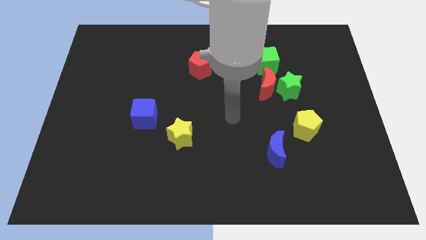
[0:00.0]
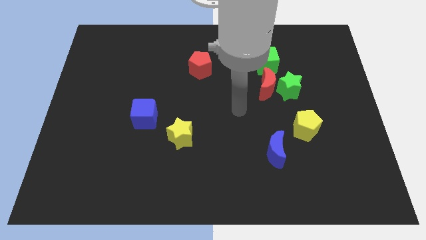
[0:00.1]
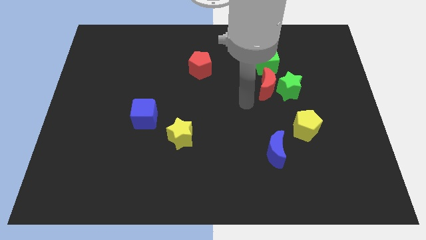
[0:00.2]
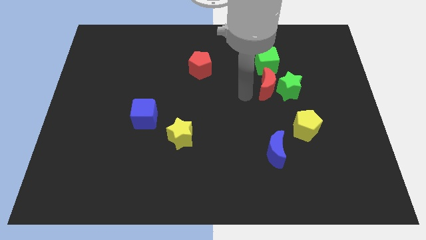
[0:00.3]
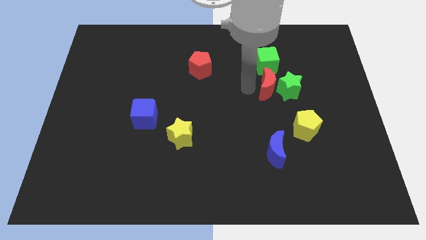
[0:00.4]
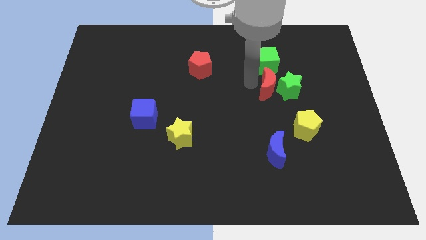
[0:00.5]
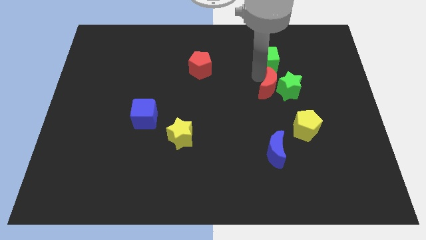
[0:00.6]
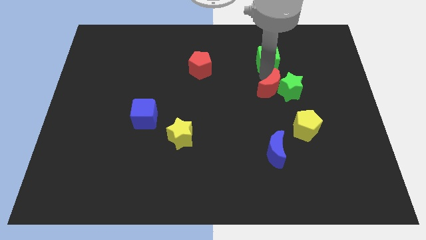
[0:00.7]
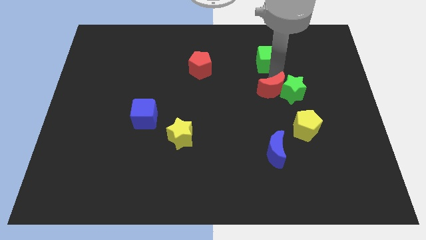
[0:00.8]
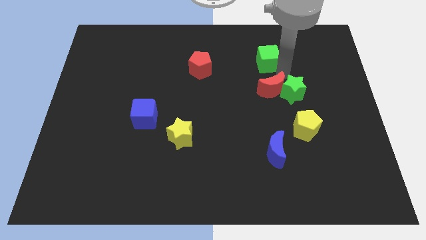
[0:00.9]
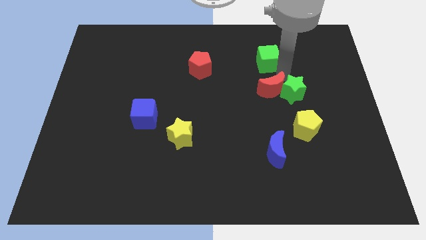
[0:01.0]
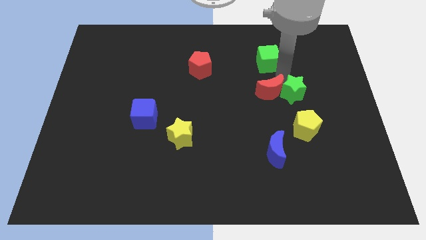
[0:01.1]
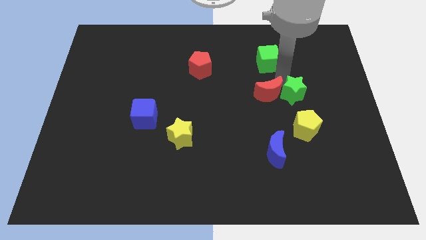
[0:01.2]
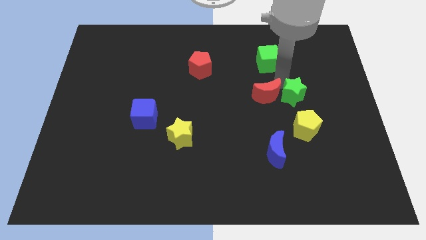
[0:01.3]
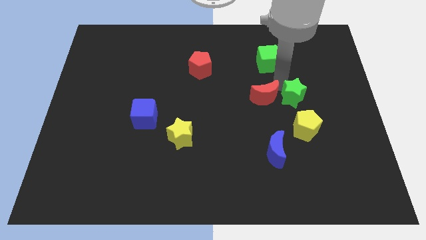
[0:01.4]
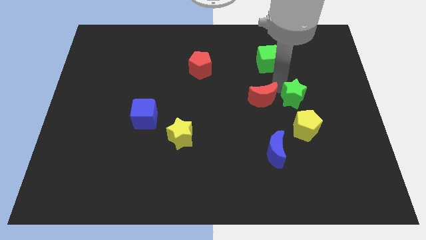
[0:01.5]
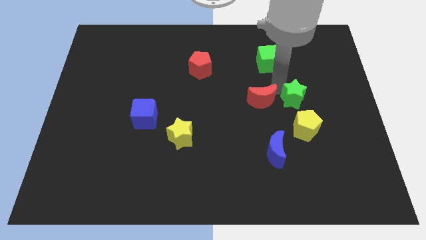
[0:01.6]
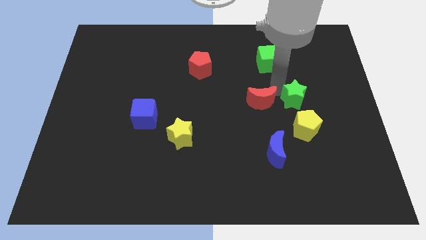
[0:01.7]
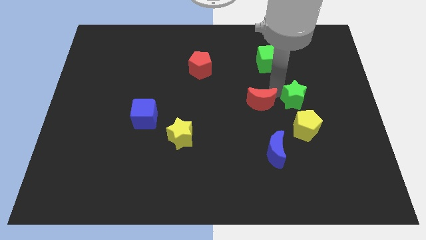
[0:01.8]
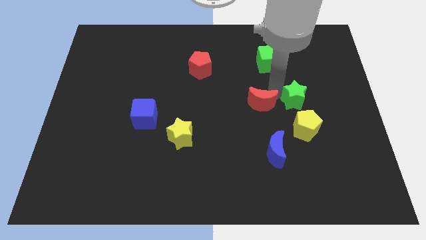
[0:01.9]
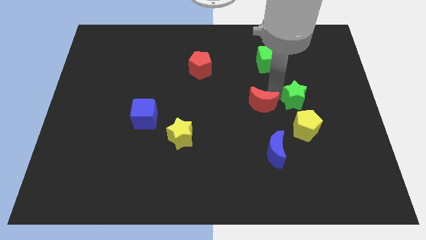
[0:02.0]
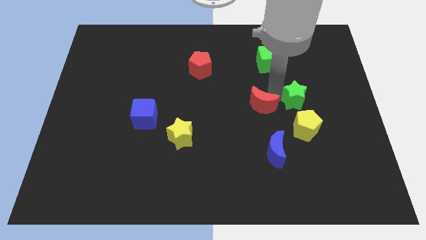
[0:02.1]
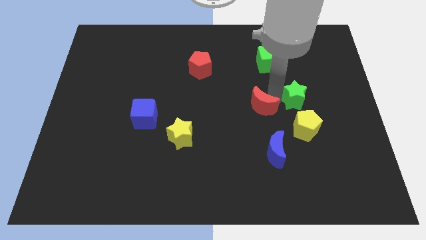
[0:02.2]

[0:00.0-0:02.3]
pull the red moon apart from the green star and green cube

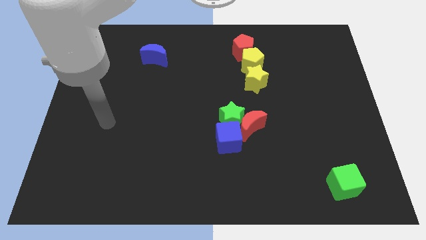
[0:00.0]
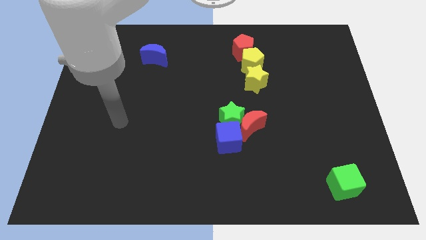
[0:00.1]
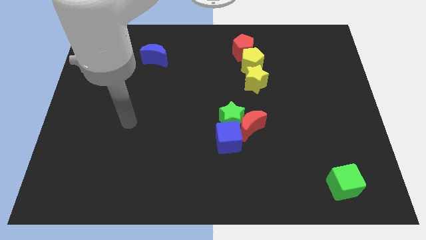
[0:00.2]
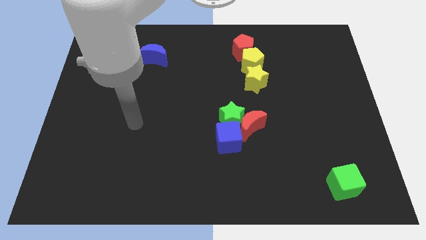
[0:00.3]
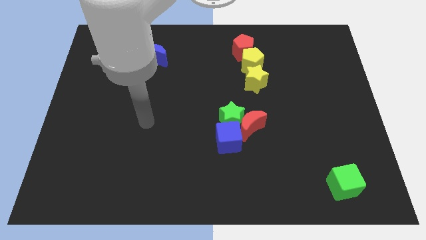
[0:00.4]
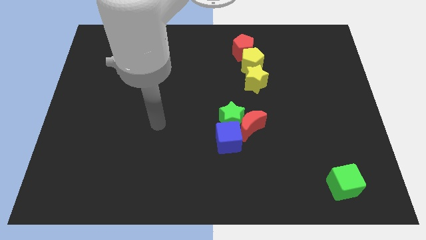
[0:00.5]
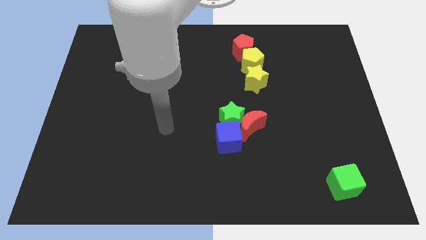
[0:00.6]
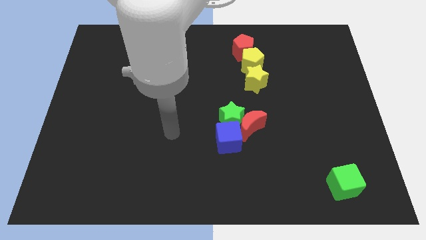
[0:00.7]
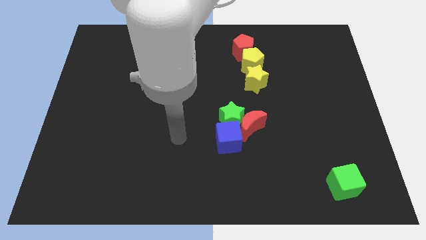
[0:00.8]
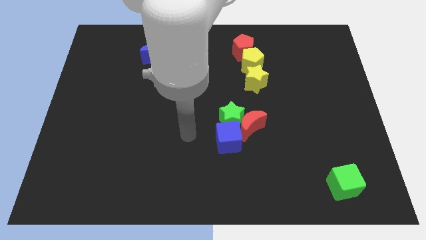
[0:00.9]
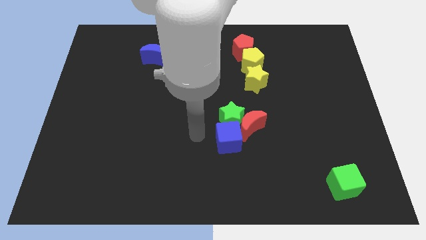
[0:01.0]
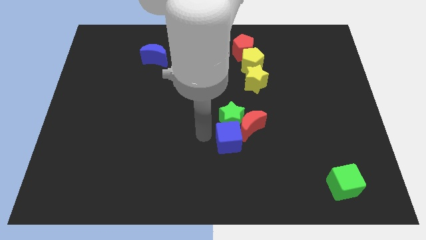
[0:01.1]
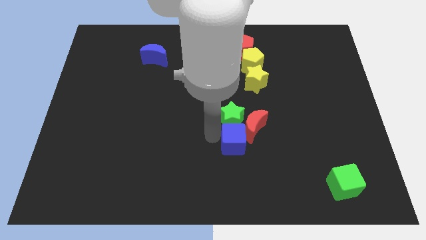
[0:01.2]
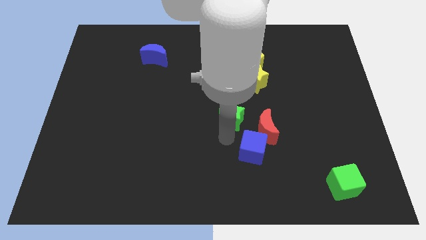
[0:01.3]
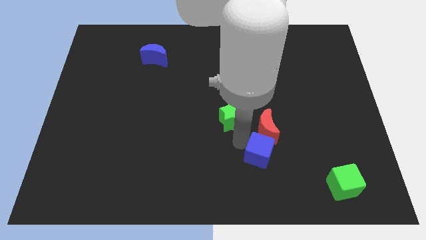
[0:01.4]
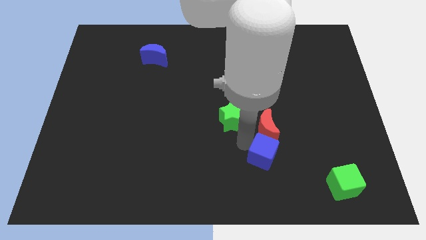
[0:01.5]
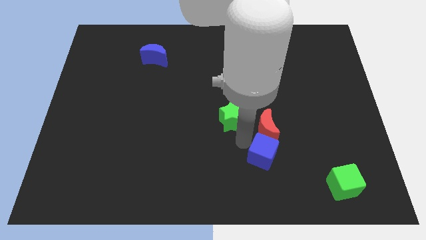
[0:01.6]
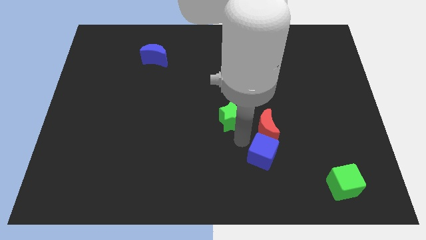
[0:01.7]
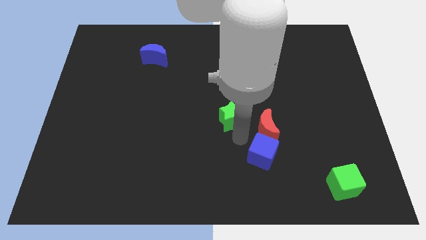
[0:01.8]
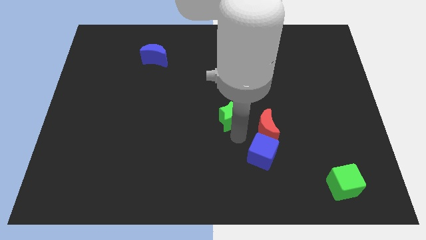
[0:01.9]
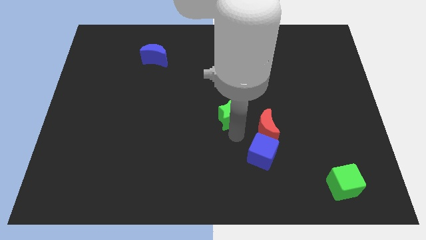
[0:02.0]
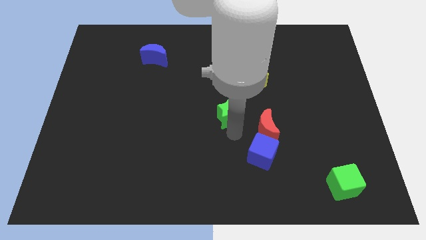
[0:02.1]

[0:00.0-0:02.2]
move the green star away from the red moon and blue cube

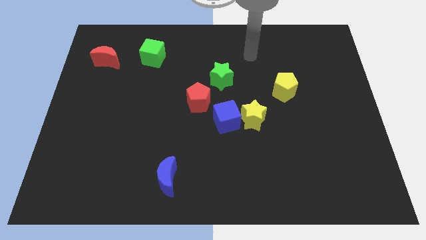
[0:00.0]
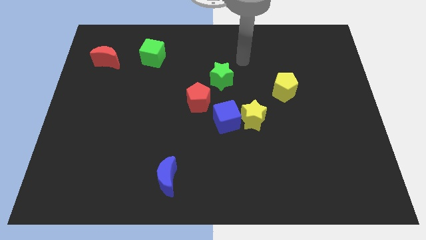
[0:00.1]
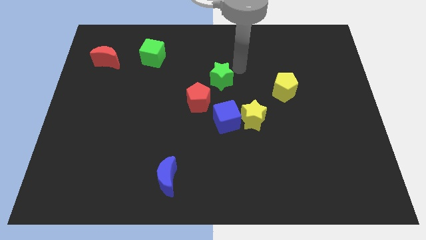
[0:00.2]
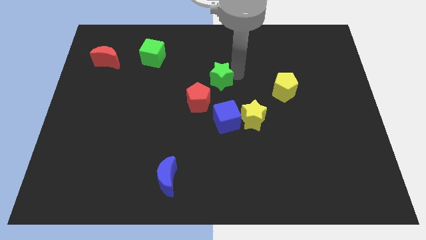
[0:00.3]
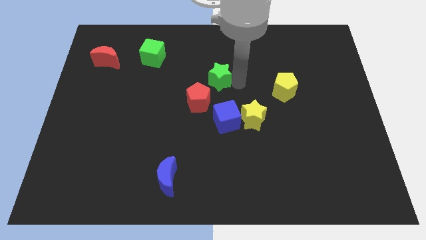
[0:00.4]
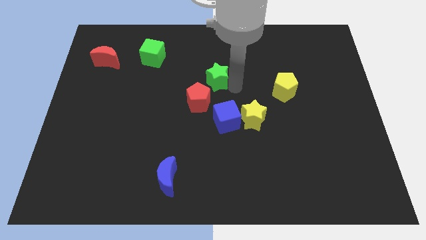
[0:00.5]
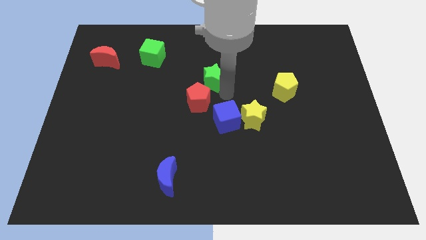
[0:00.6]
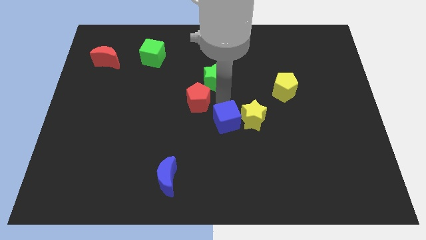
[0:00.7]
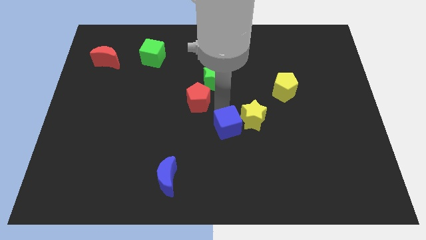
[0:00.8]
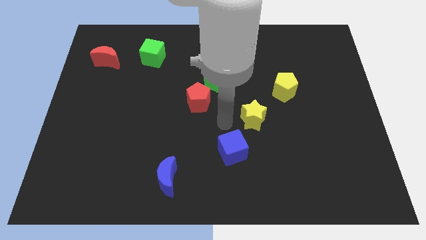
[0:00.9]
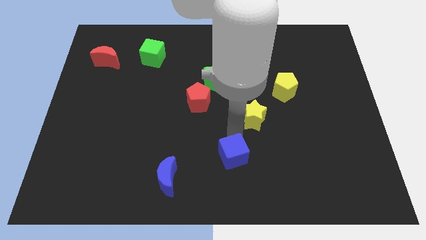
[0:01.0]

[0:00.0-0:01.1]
pull the yellow star apart from the blue cube

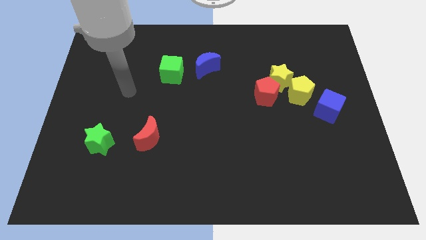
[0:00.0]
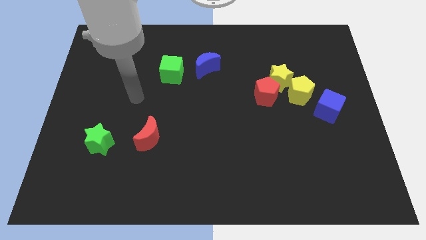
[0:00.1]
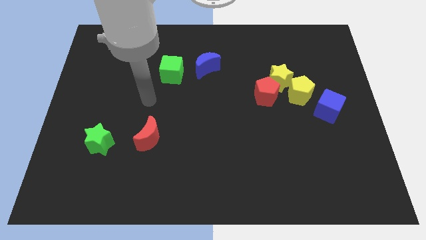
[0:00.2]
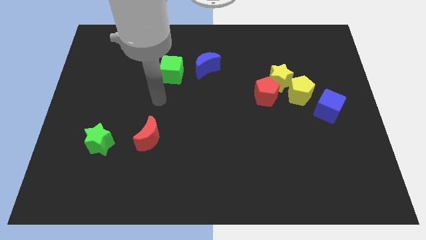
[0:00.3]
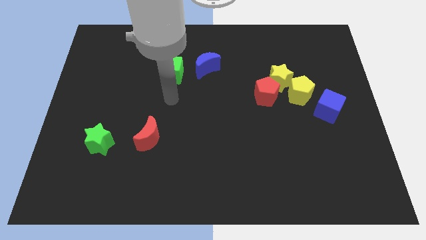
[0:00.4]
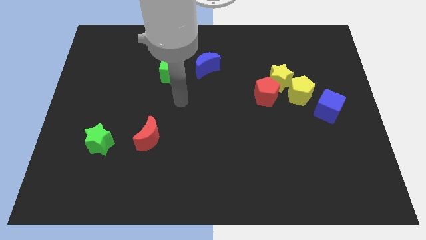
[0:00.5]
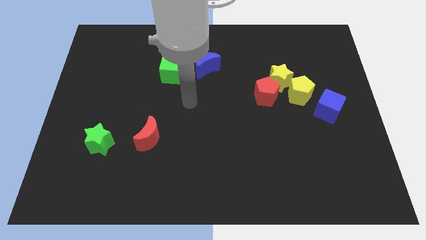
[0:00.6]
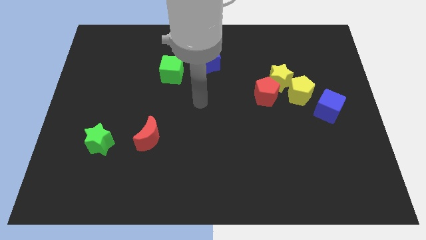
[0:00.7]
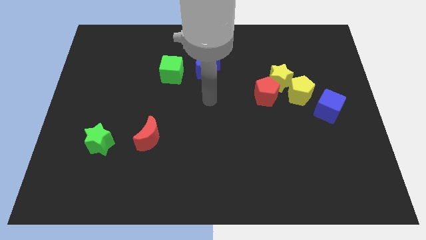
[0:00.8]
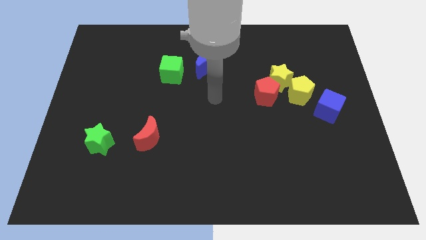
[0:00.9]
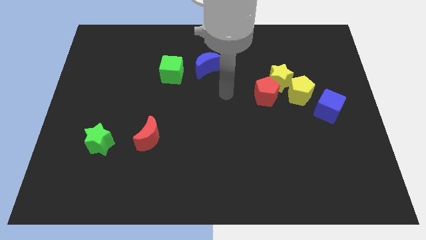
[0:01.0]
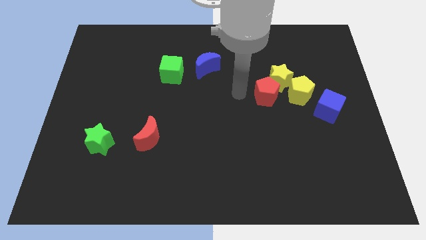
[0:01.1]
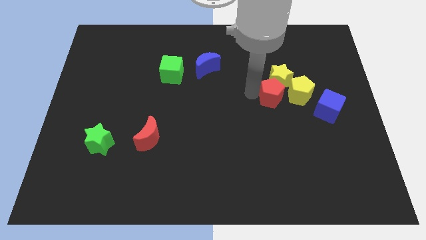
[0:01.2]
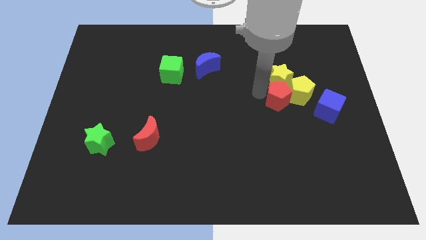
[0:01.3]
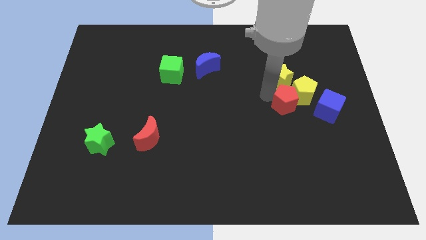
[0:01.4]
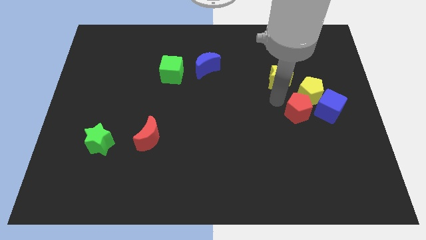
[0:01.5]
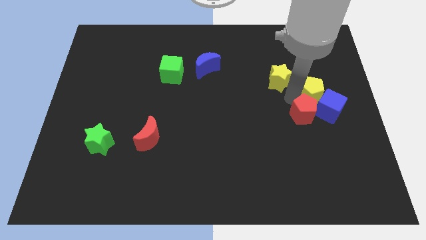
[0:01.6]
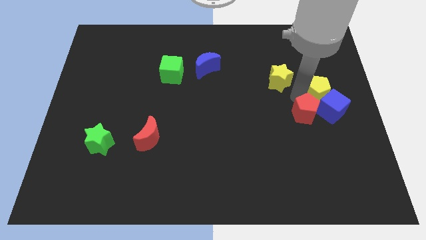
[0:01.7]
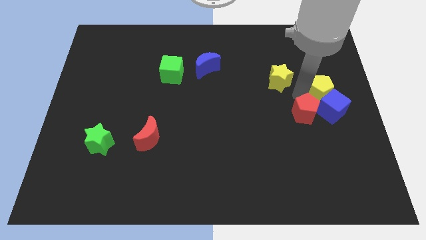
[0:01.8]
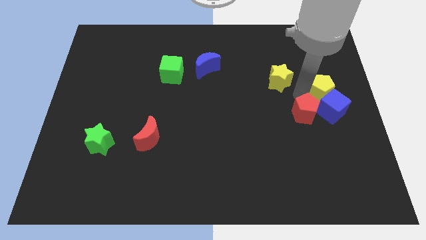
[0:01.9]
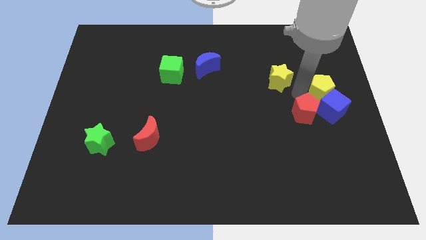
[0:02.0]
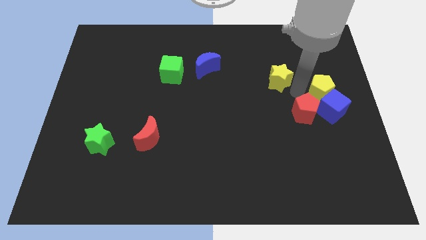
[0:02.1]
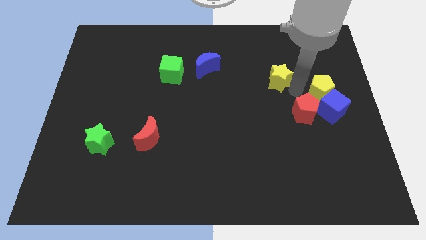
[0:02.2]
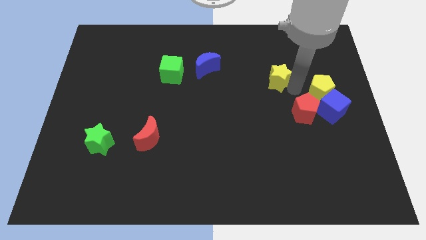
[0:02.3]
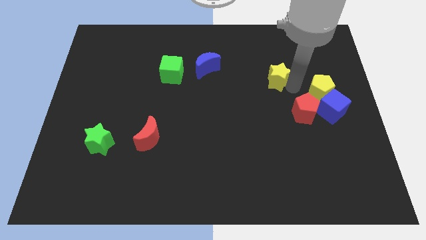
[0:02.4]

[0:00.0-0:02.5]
separate the yellow star from the yellow pentagon and red pentagon

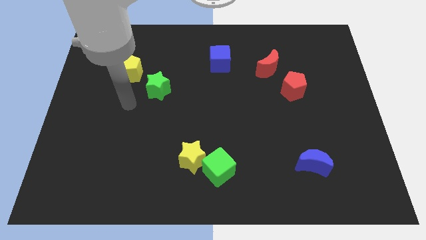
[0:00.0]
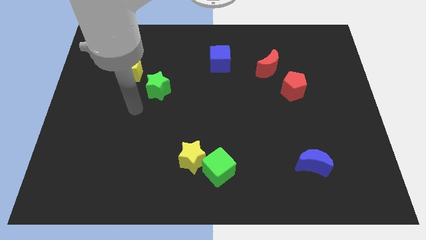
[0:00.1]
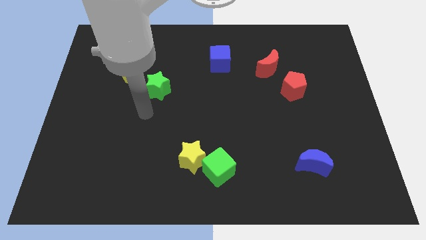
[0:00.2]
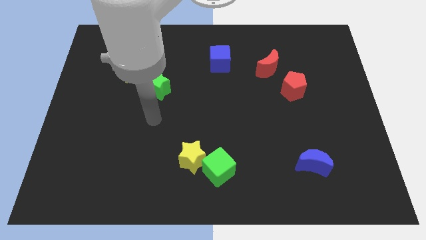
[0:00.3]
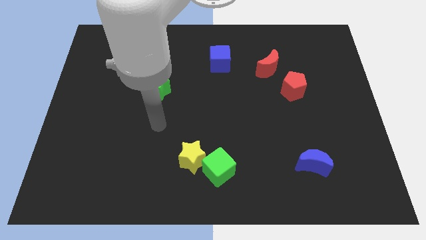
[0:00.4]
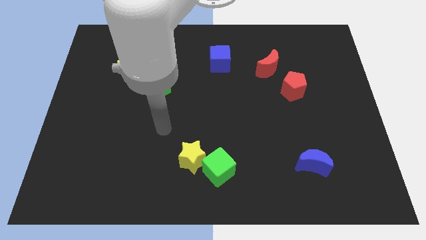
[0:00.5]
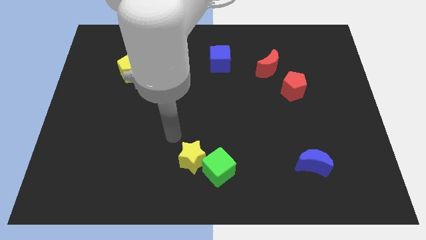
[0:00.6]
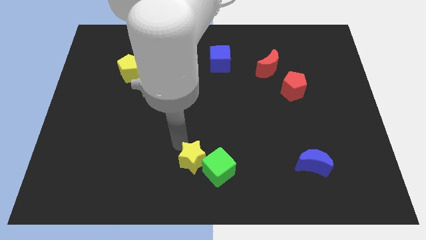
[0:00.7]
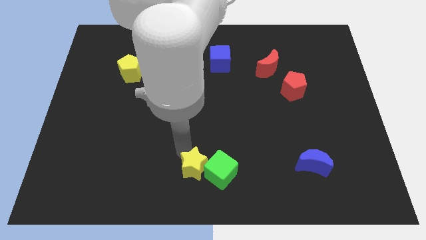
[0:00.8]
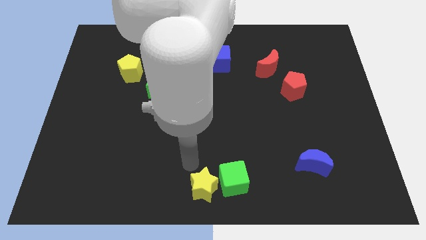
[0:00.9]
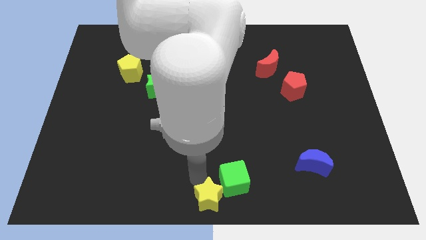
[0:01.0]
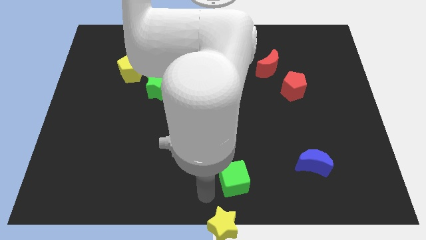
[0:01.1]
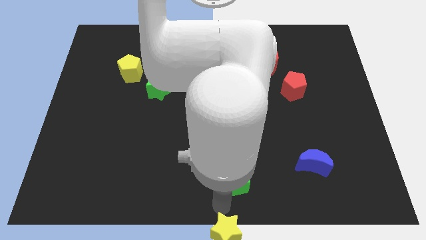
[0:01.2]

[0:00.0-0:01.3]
separate the green cube from the yellow star
